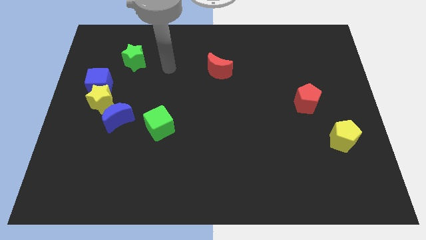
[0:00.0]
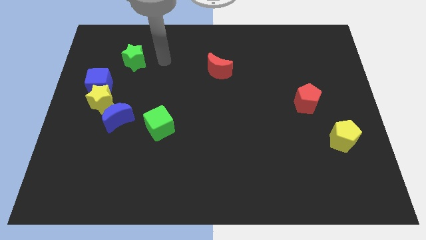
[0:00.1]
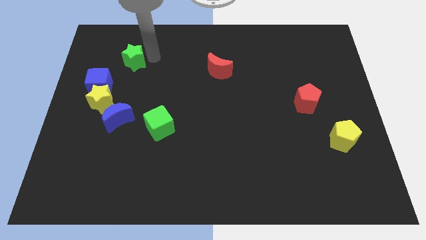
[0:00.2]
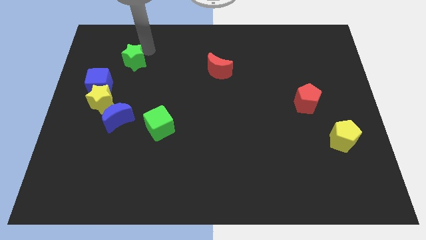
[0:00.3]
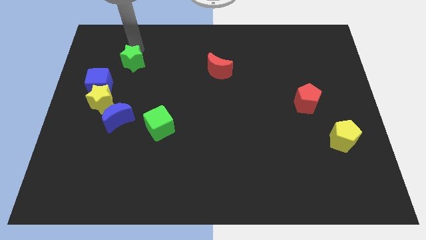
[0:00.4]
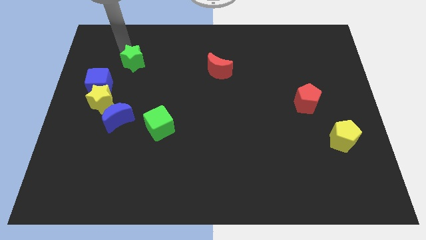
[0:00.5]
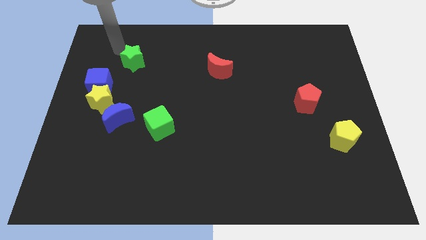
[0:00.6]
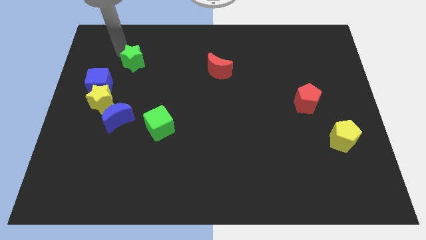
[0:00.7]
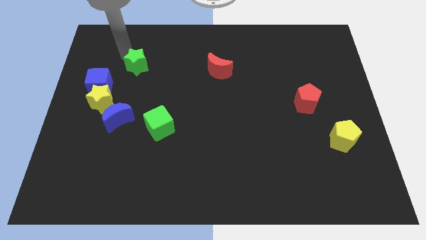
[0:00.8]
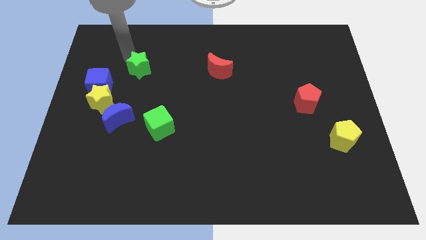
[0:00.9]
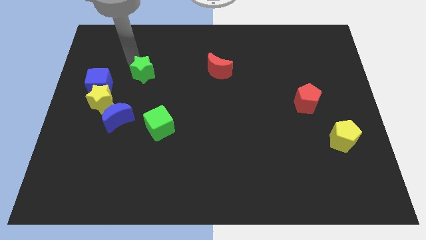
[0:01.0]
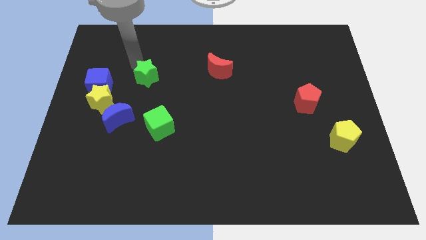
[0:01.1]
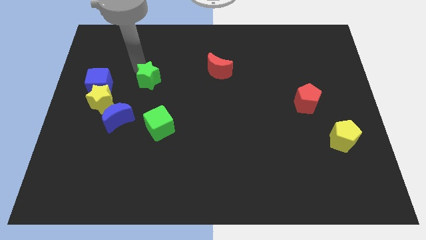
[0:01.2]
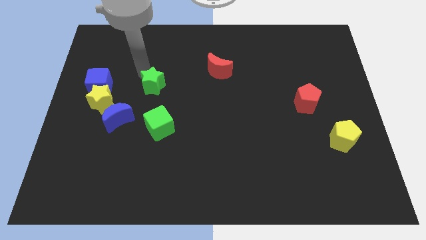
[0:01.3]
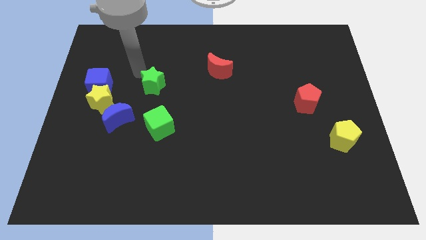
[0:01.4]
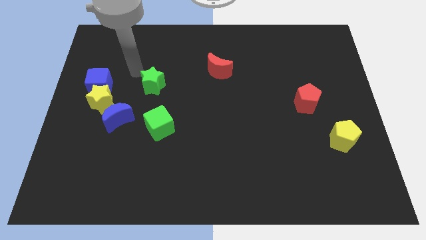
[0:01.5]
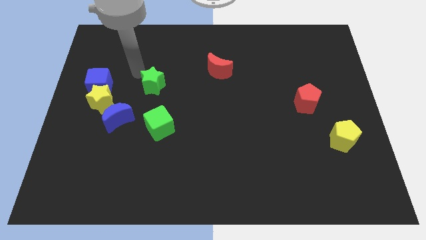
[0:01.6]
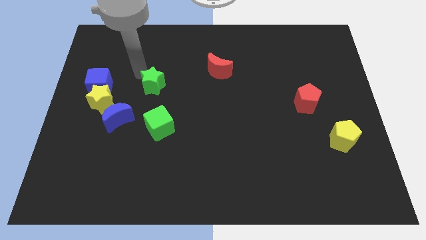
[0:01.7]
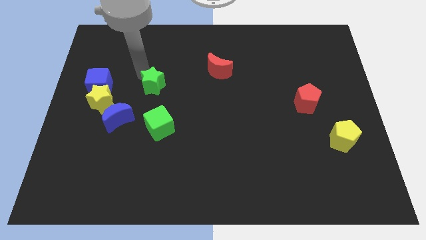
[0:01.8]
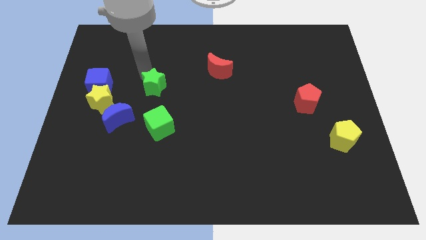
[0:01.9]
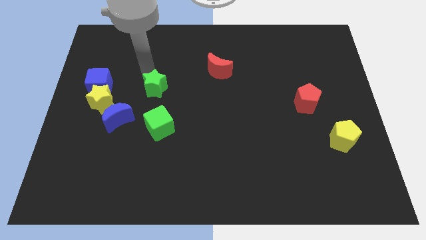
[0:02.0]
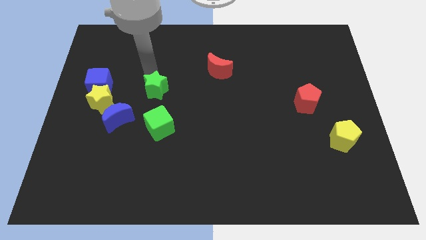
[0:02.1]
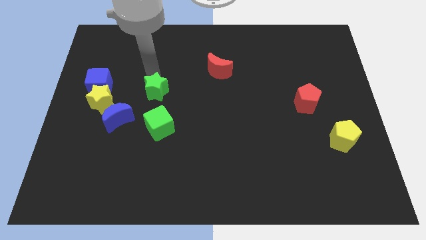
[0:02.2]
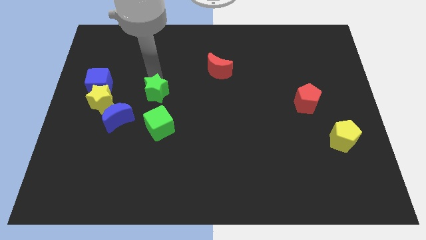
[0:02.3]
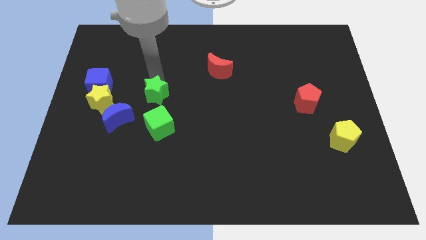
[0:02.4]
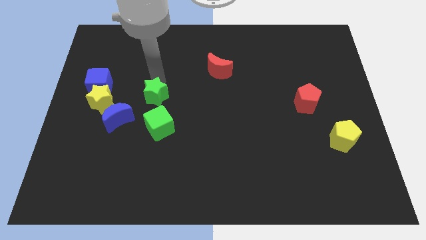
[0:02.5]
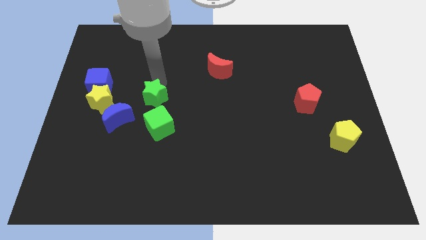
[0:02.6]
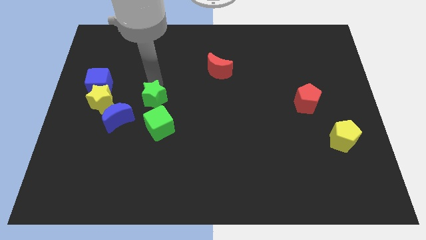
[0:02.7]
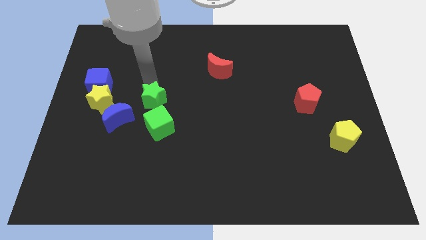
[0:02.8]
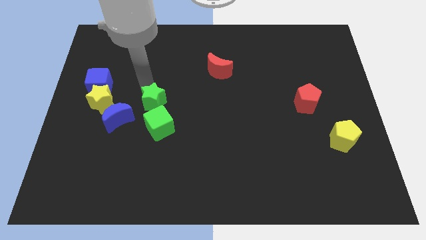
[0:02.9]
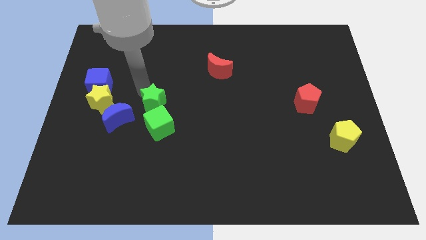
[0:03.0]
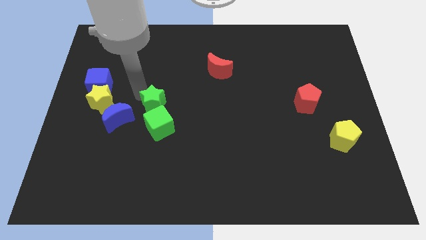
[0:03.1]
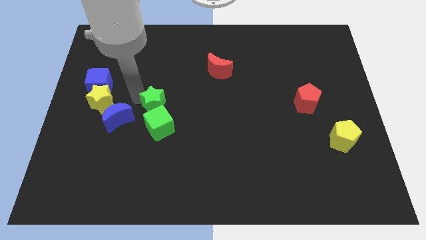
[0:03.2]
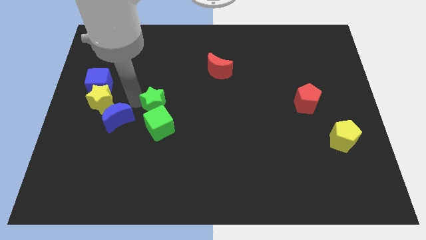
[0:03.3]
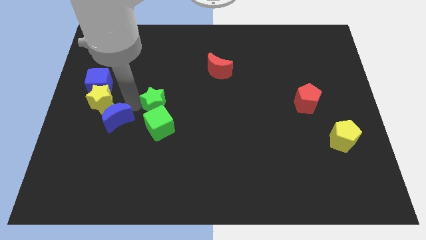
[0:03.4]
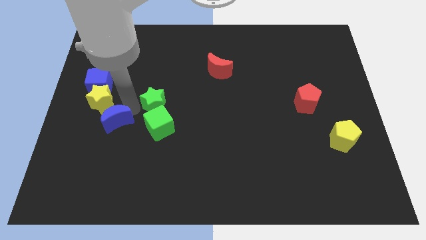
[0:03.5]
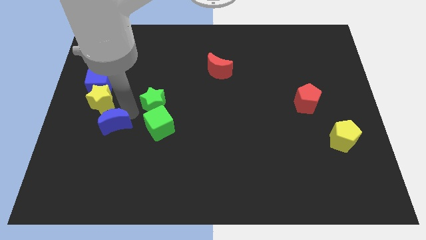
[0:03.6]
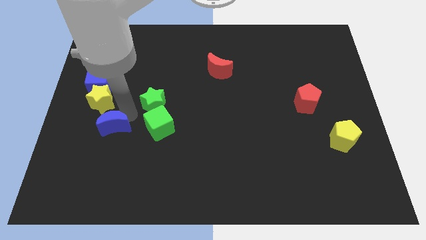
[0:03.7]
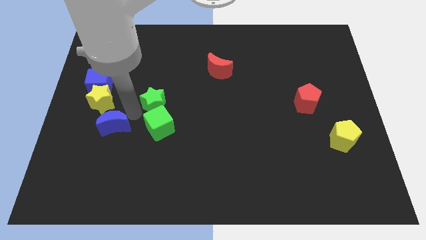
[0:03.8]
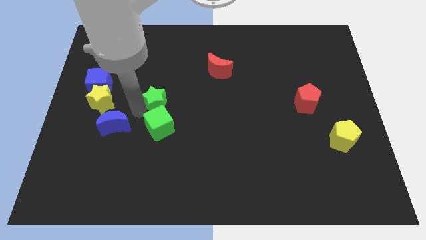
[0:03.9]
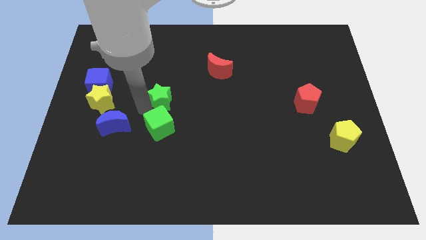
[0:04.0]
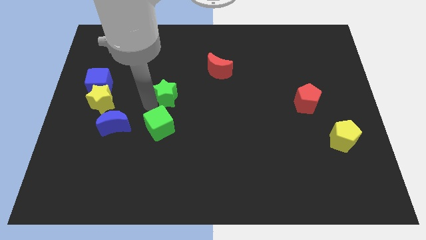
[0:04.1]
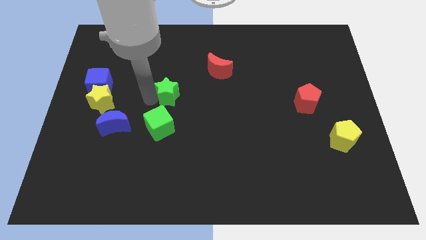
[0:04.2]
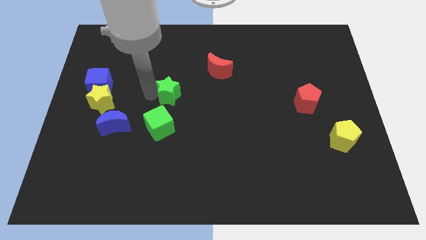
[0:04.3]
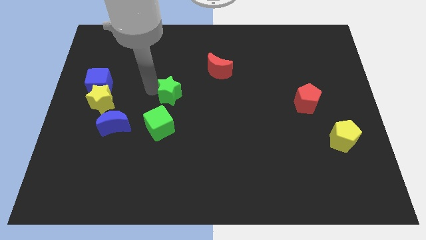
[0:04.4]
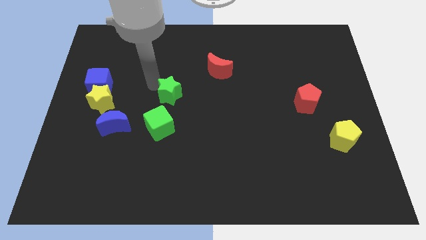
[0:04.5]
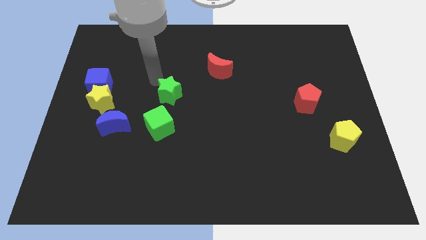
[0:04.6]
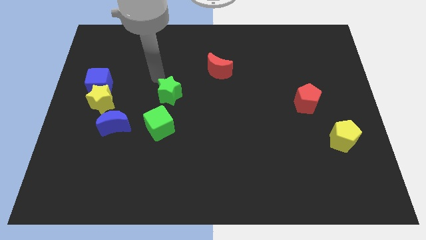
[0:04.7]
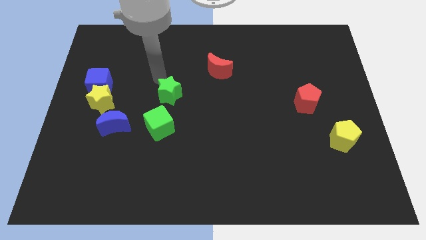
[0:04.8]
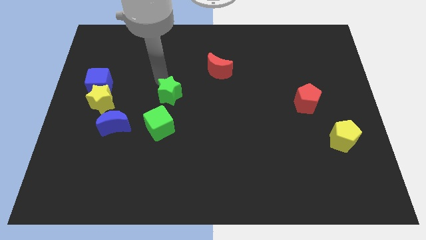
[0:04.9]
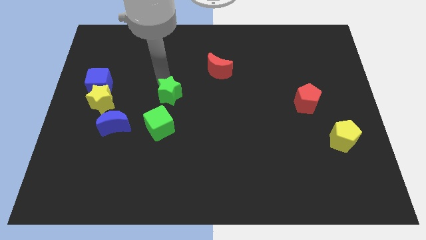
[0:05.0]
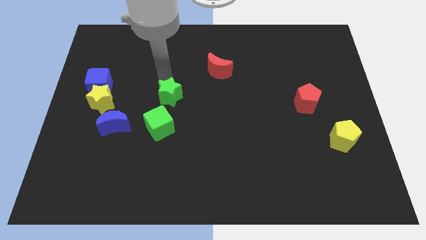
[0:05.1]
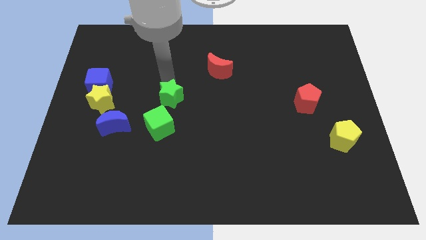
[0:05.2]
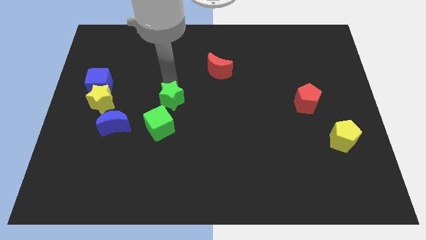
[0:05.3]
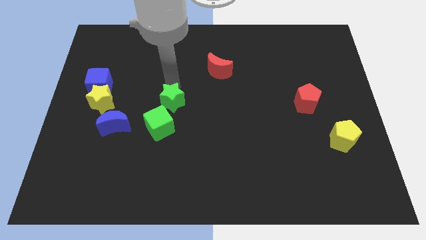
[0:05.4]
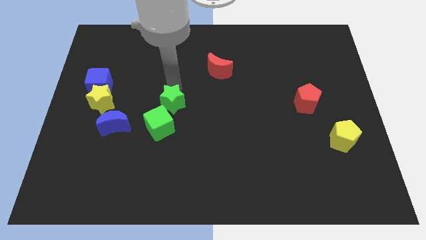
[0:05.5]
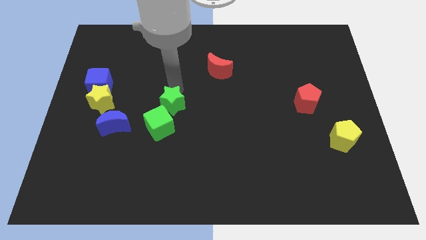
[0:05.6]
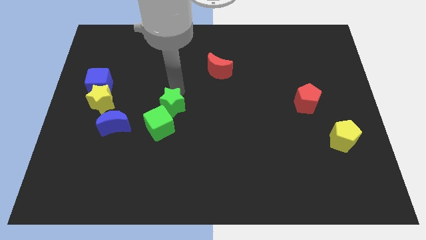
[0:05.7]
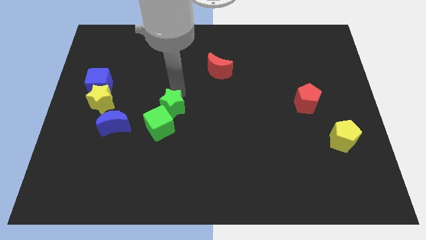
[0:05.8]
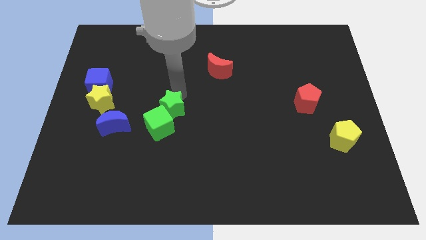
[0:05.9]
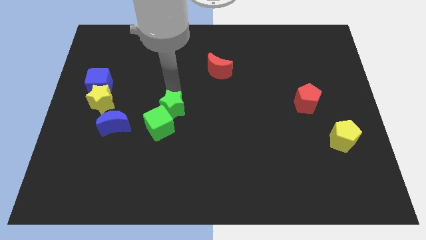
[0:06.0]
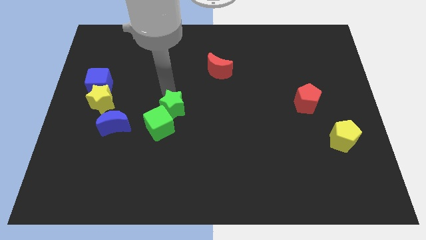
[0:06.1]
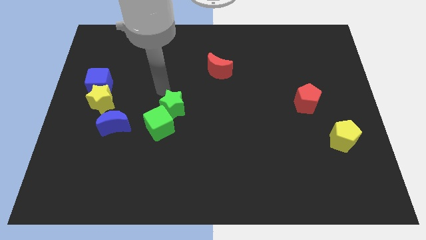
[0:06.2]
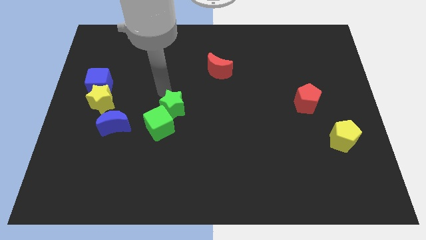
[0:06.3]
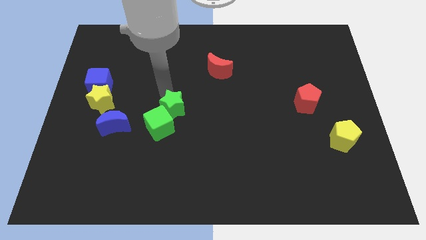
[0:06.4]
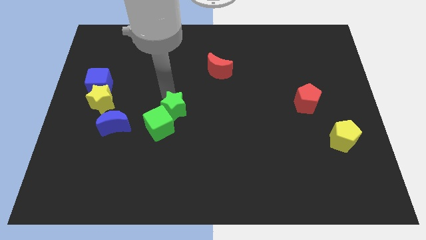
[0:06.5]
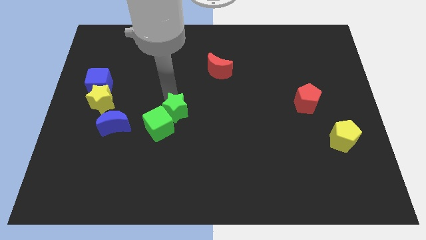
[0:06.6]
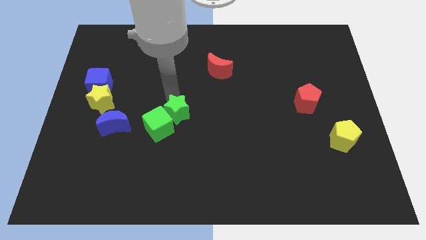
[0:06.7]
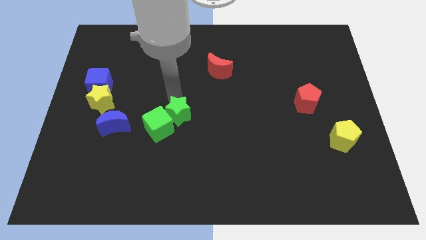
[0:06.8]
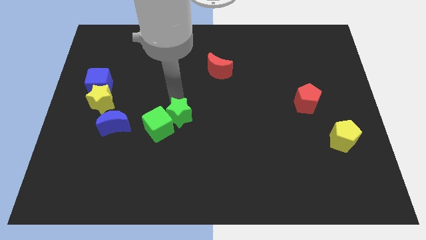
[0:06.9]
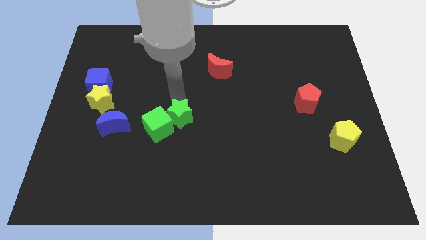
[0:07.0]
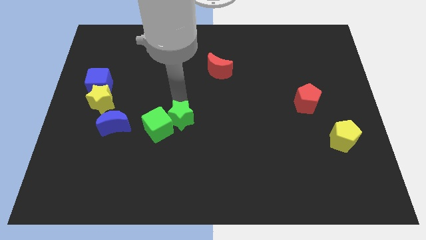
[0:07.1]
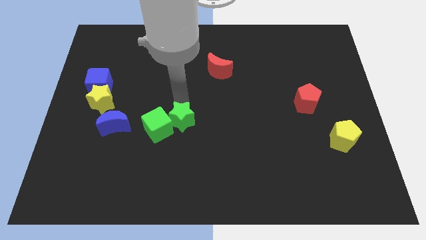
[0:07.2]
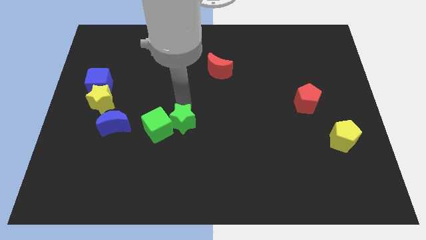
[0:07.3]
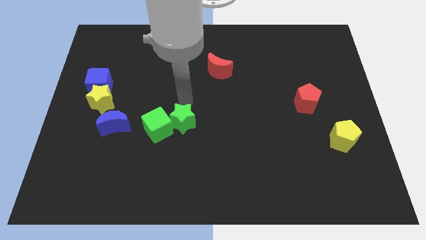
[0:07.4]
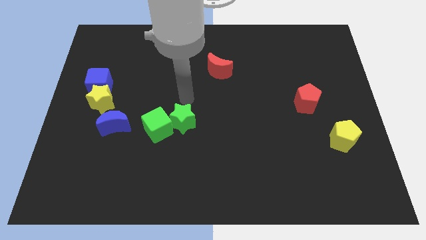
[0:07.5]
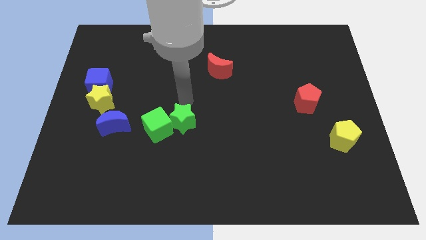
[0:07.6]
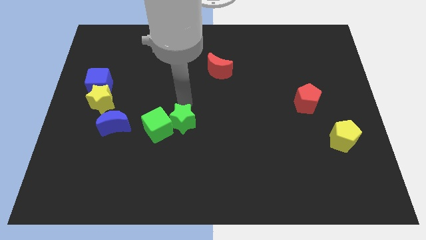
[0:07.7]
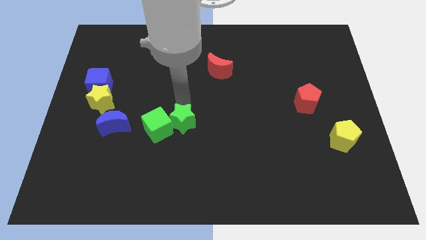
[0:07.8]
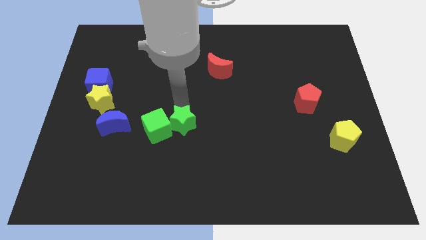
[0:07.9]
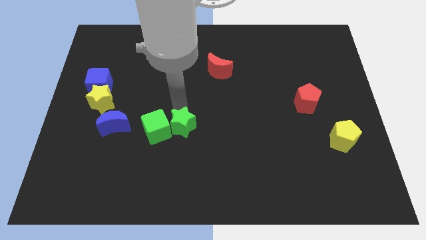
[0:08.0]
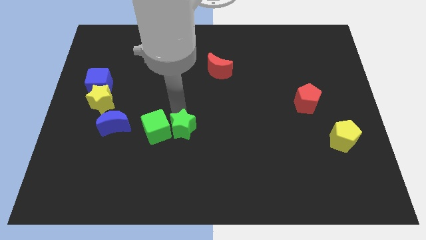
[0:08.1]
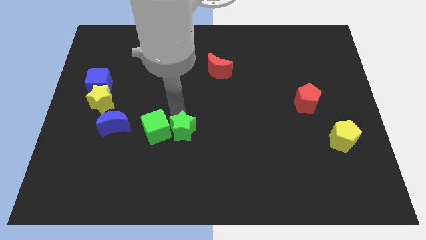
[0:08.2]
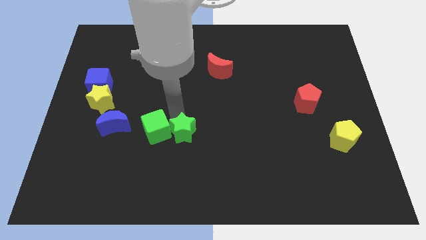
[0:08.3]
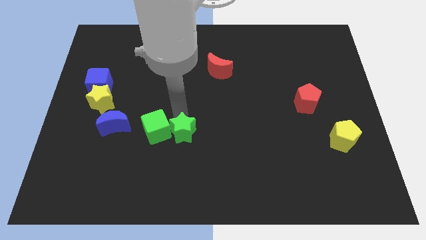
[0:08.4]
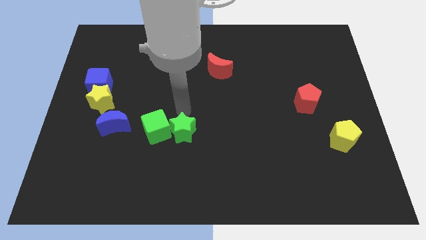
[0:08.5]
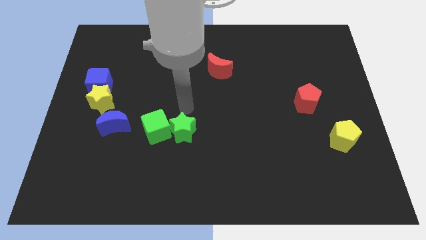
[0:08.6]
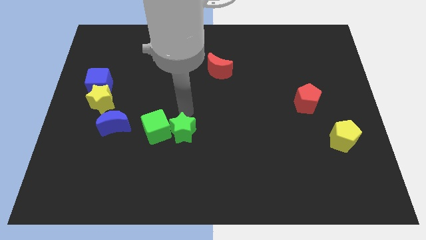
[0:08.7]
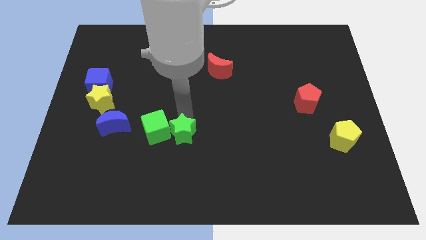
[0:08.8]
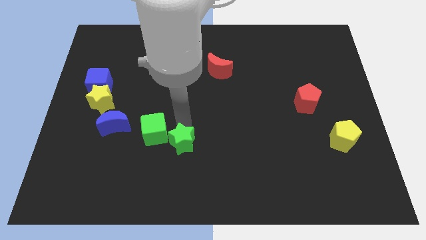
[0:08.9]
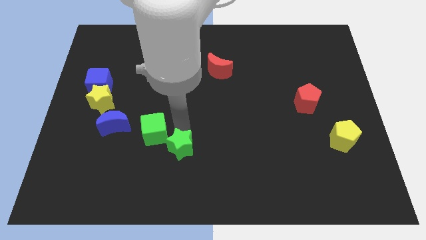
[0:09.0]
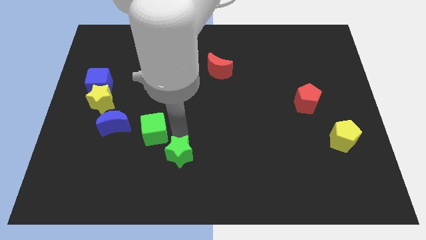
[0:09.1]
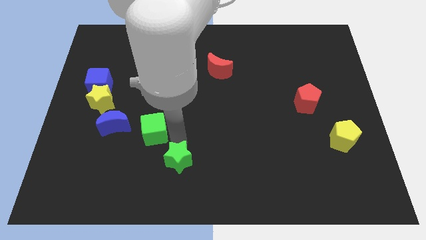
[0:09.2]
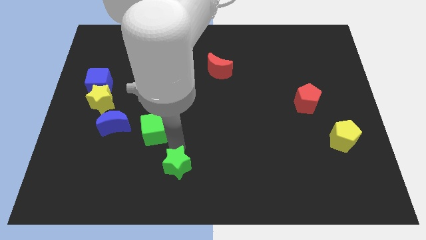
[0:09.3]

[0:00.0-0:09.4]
put the green star to the bottom
